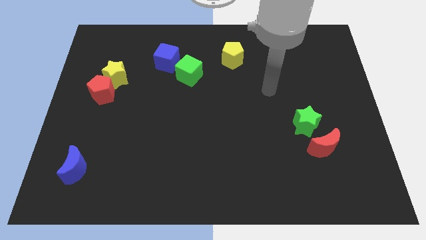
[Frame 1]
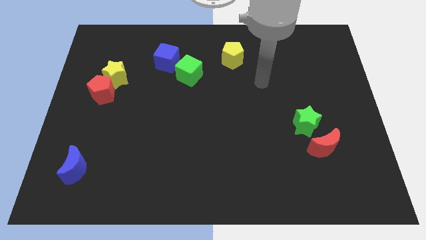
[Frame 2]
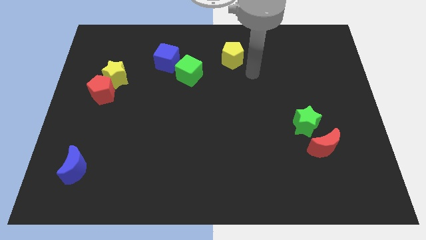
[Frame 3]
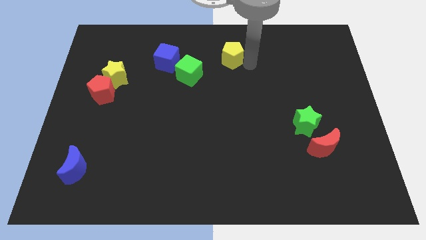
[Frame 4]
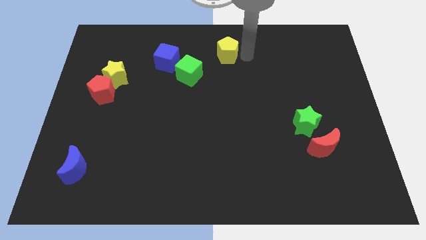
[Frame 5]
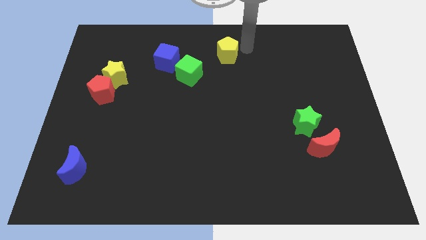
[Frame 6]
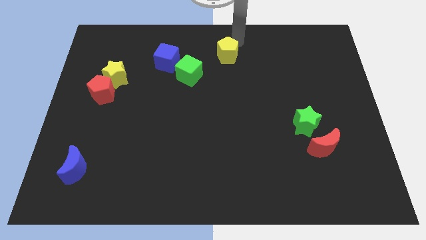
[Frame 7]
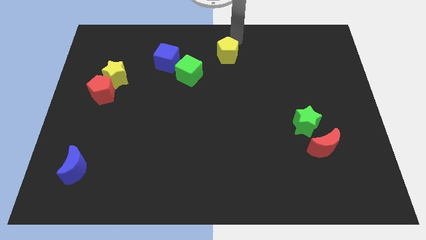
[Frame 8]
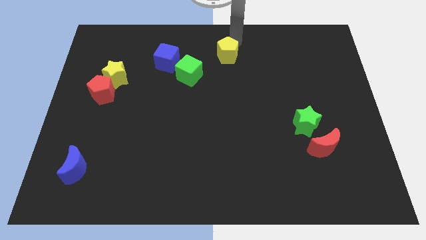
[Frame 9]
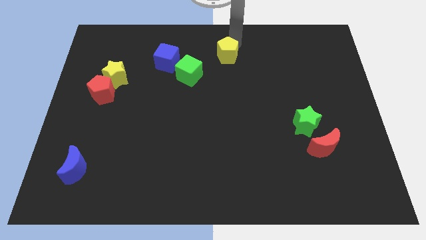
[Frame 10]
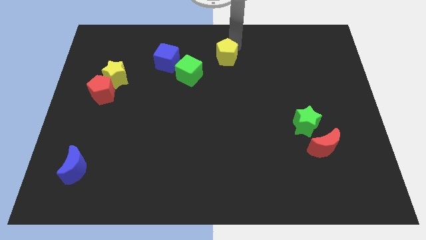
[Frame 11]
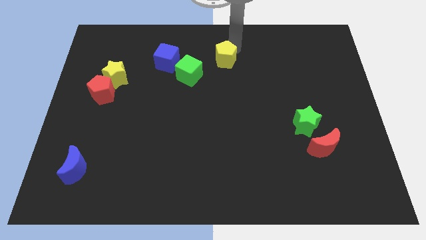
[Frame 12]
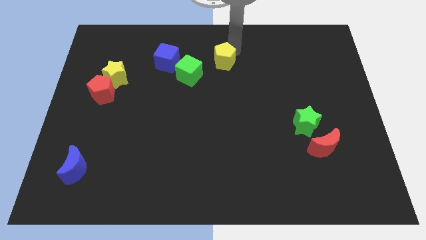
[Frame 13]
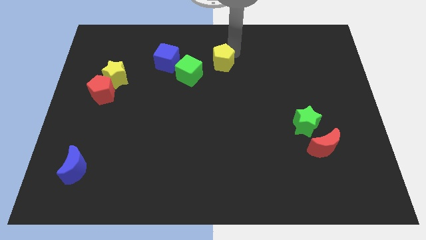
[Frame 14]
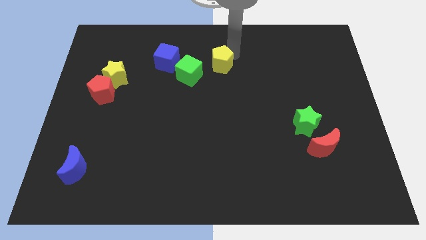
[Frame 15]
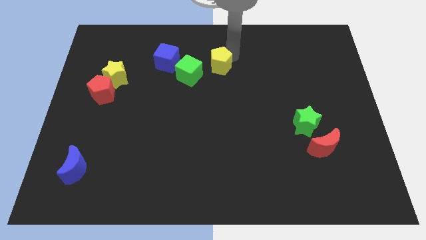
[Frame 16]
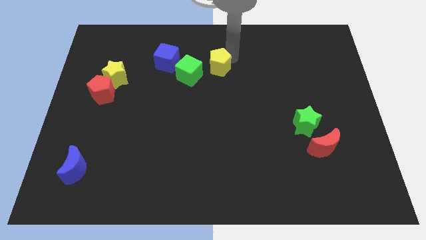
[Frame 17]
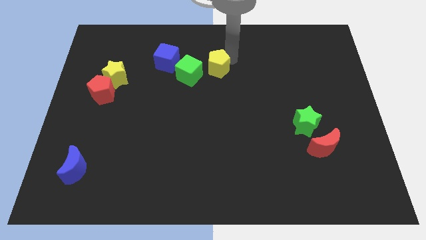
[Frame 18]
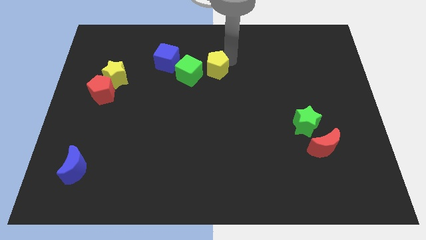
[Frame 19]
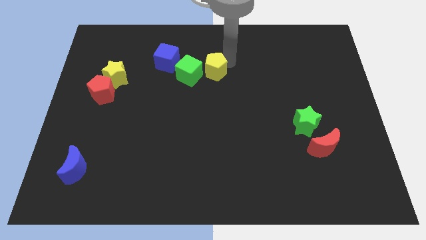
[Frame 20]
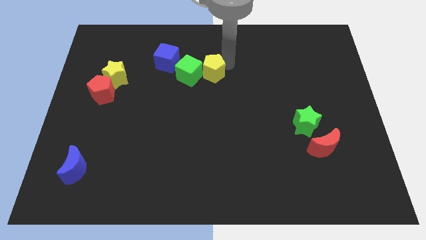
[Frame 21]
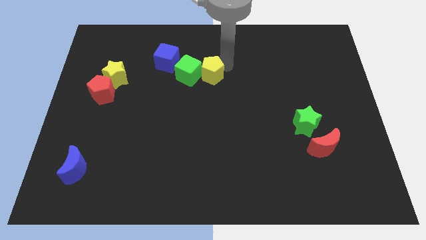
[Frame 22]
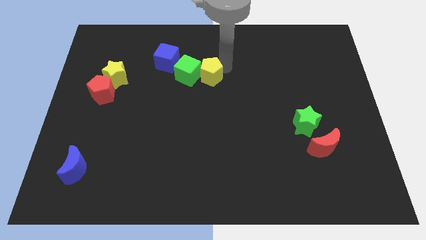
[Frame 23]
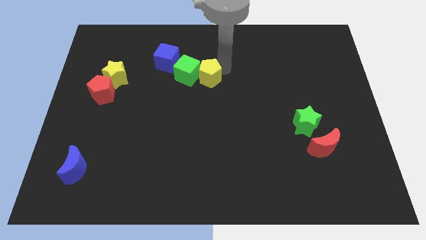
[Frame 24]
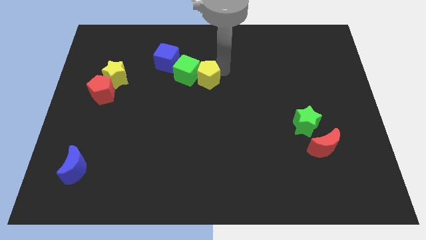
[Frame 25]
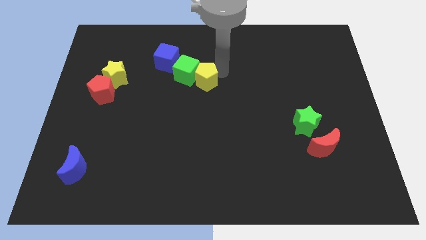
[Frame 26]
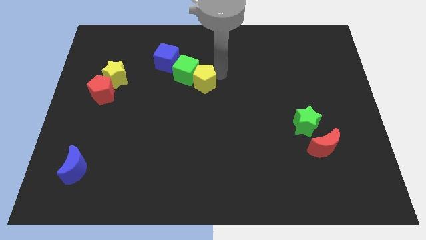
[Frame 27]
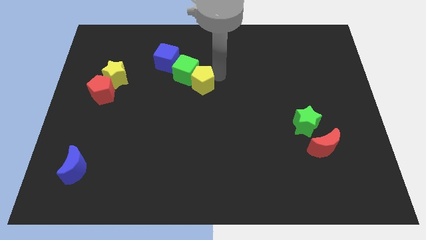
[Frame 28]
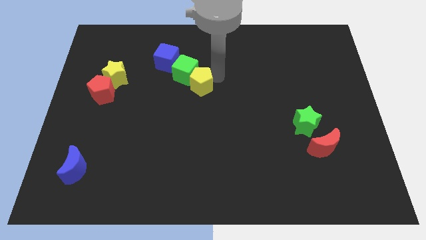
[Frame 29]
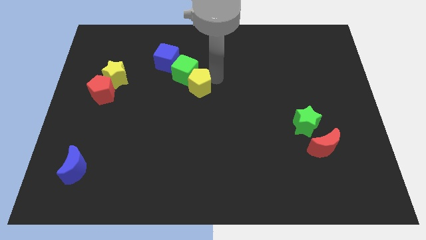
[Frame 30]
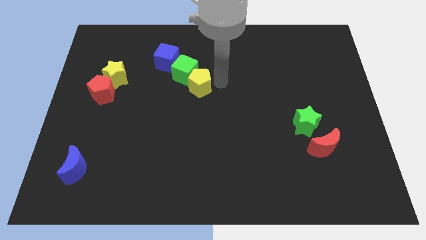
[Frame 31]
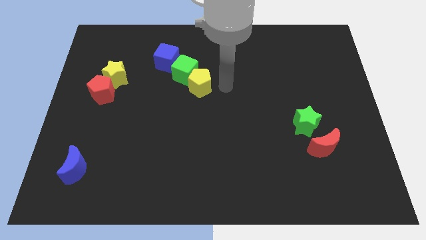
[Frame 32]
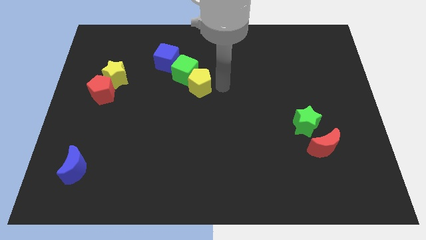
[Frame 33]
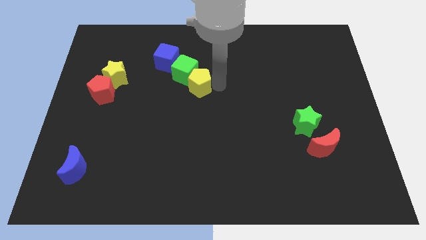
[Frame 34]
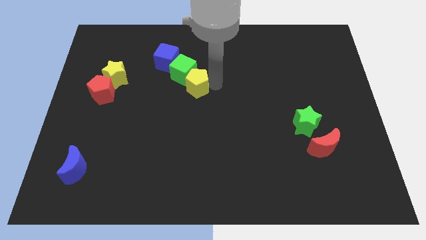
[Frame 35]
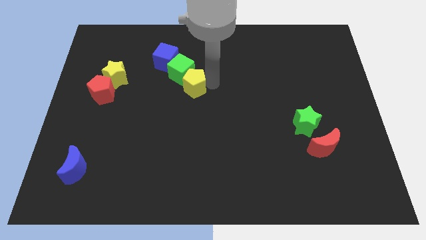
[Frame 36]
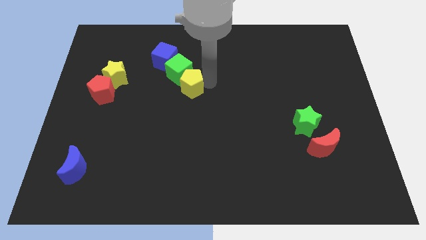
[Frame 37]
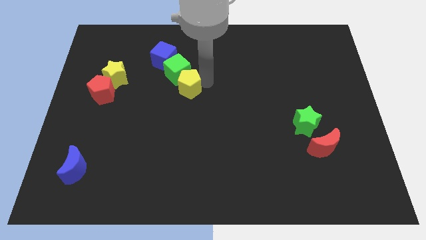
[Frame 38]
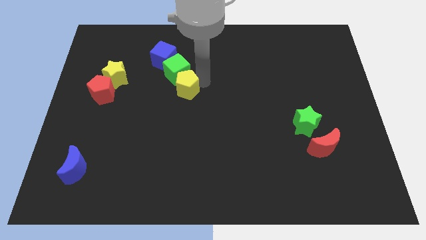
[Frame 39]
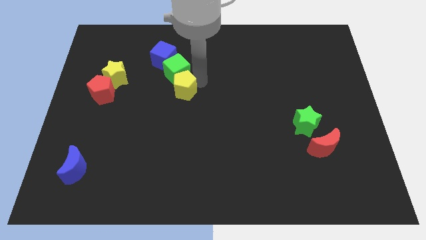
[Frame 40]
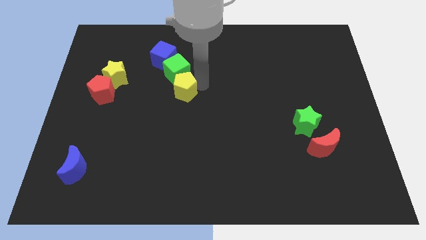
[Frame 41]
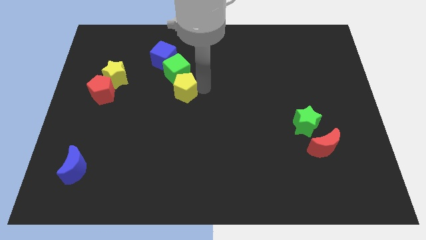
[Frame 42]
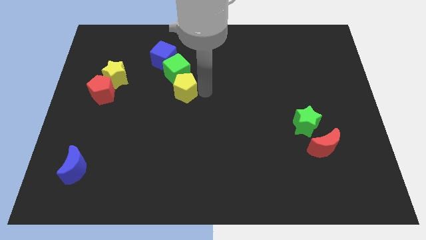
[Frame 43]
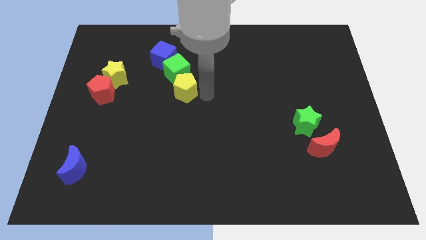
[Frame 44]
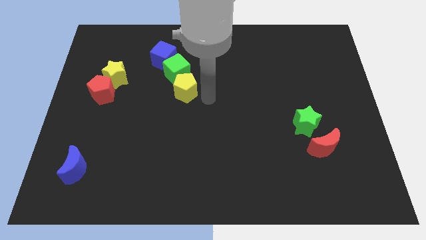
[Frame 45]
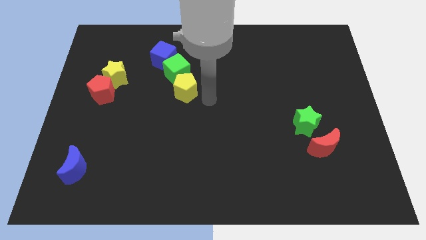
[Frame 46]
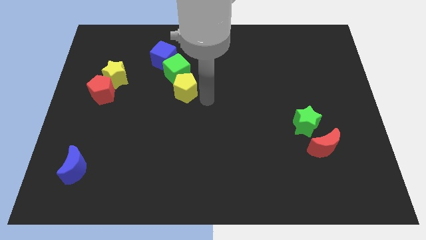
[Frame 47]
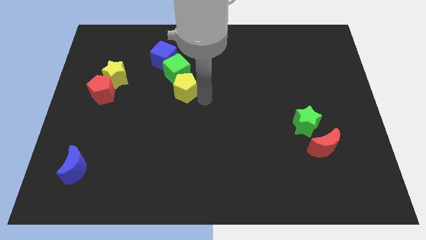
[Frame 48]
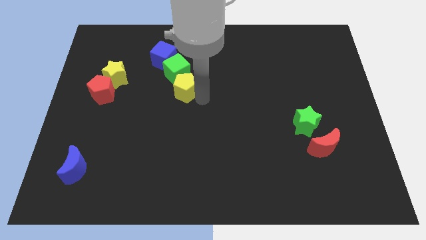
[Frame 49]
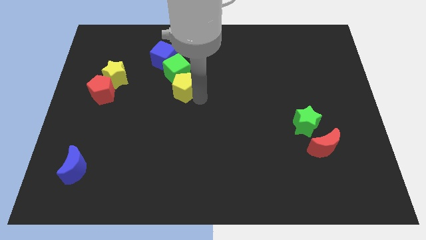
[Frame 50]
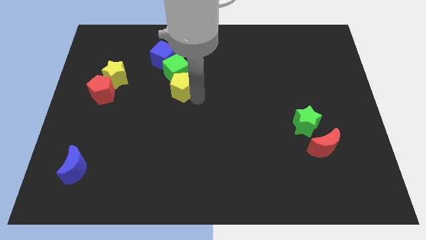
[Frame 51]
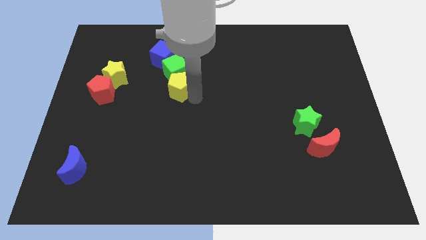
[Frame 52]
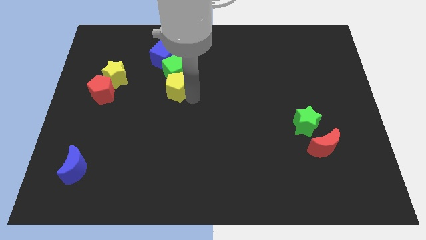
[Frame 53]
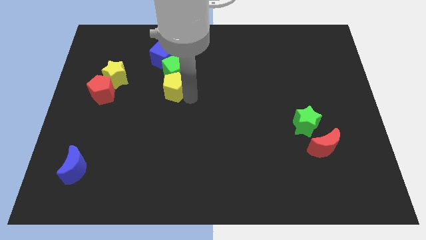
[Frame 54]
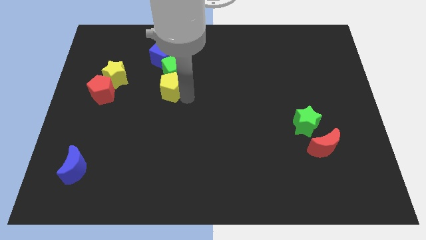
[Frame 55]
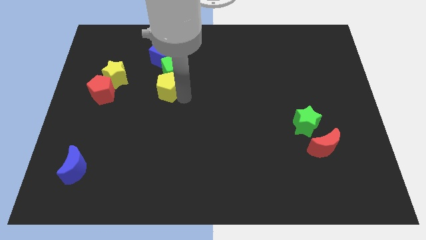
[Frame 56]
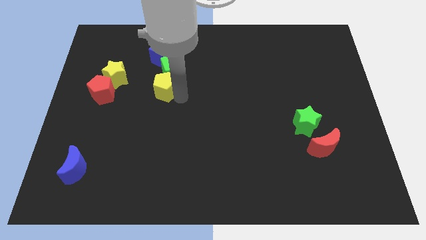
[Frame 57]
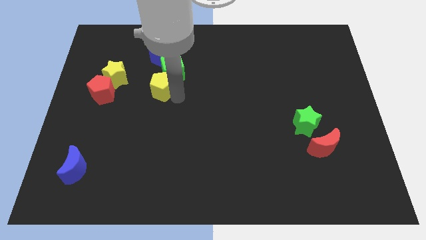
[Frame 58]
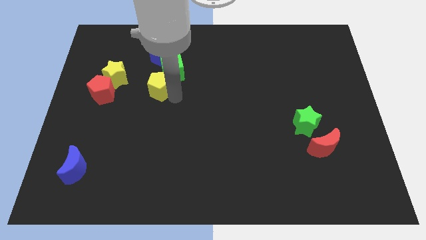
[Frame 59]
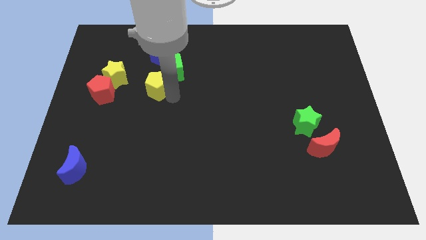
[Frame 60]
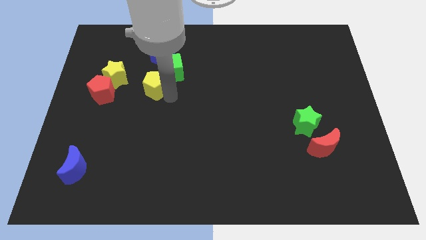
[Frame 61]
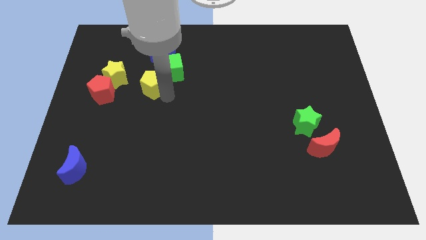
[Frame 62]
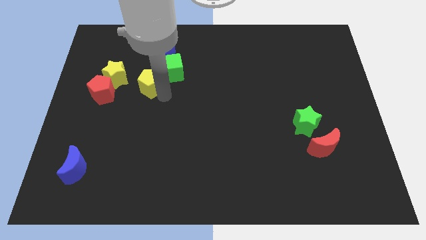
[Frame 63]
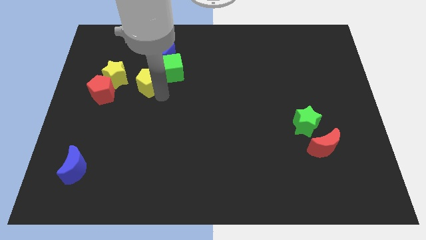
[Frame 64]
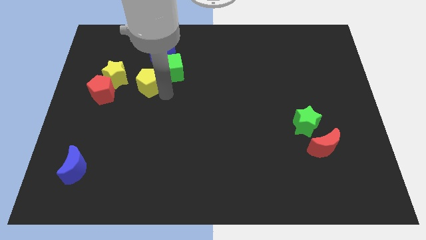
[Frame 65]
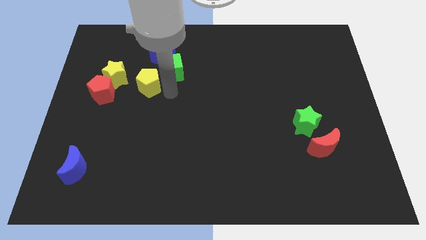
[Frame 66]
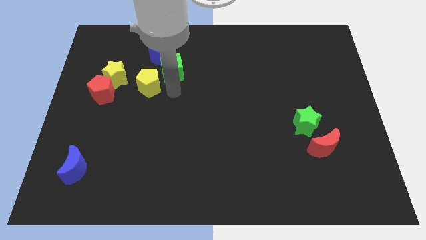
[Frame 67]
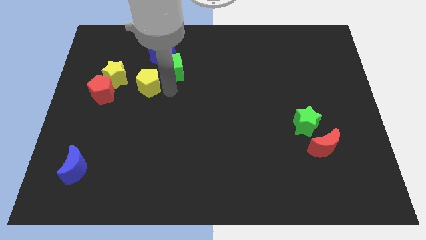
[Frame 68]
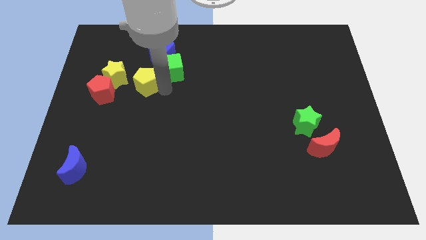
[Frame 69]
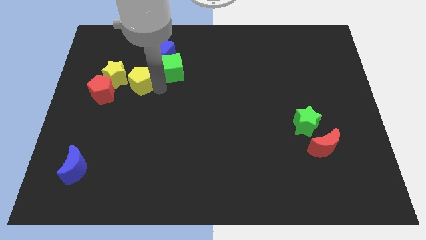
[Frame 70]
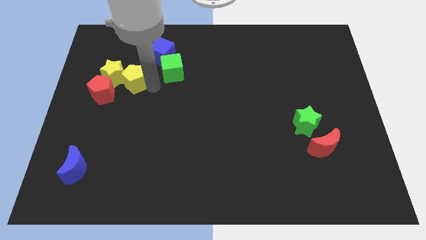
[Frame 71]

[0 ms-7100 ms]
slide the yellow pentagon towards the yellow star

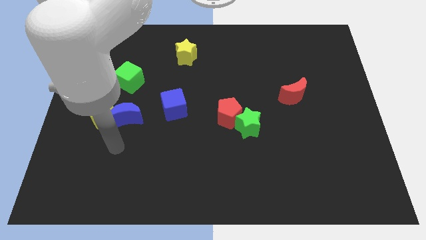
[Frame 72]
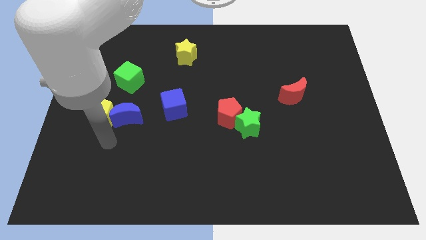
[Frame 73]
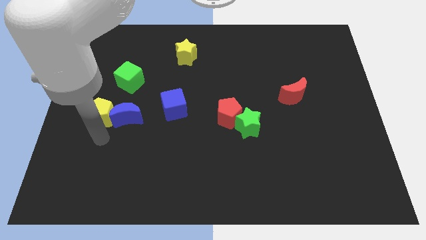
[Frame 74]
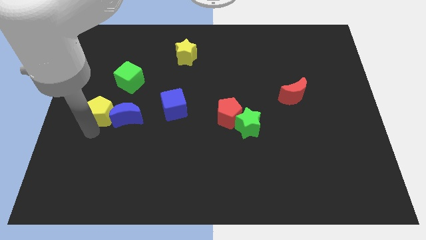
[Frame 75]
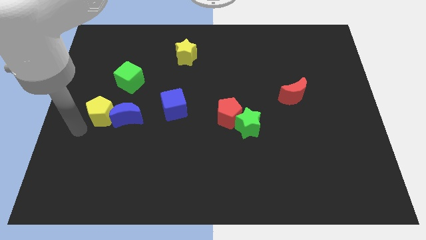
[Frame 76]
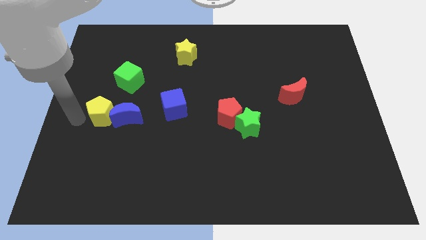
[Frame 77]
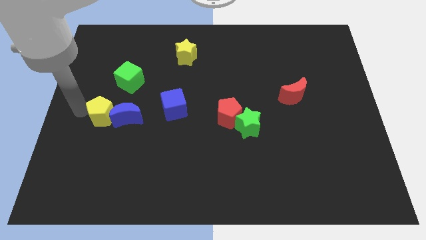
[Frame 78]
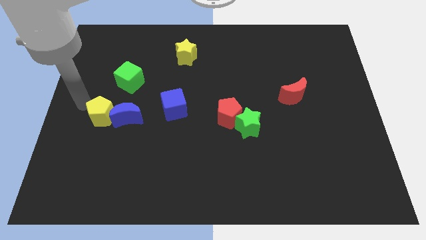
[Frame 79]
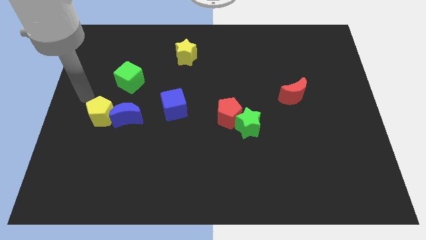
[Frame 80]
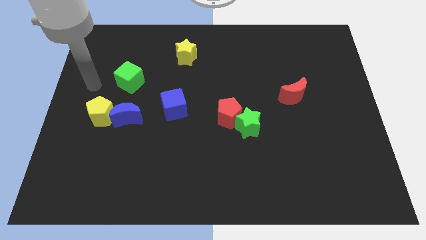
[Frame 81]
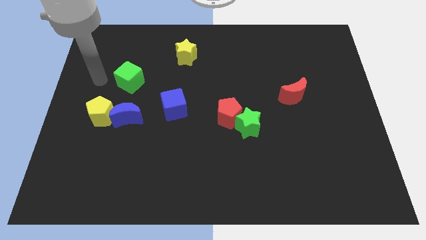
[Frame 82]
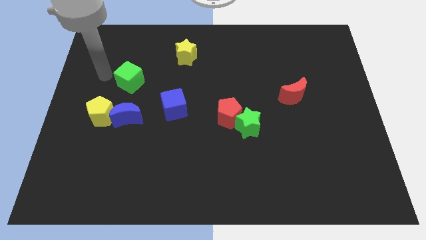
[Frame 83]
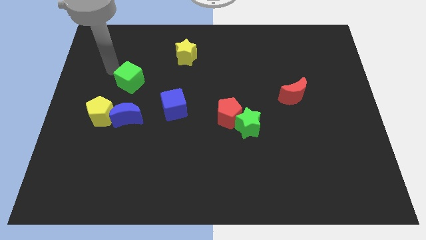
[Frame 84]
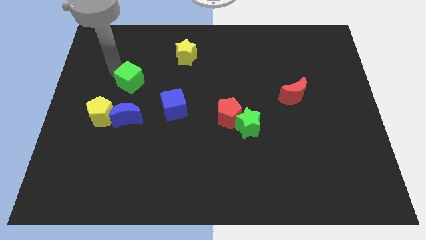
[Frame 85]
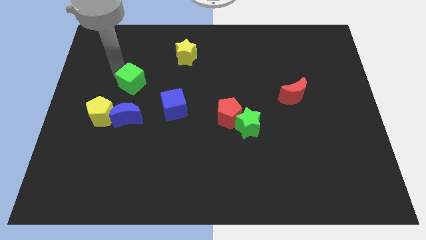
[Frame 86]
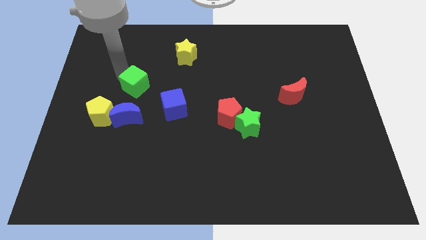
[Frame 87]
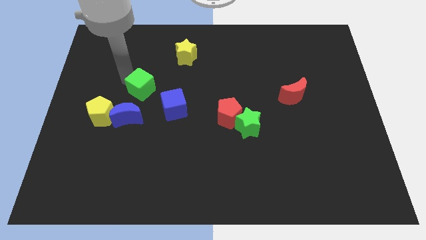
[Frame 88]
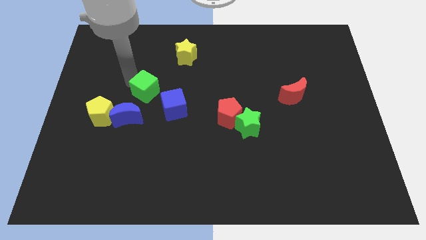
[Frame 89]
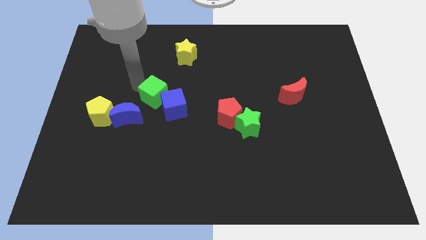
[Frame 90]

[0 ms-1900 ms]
move the green cube next to the blue cube
